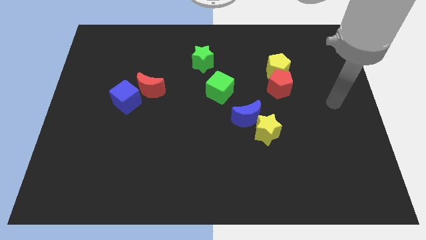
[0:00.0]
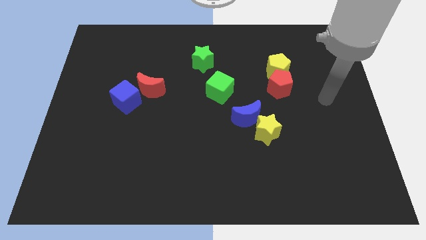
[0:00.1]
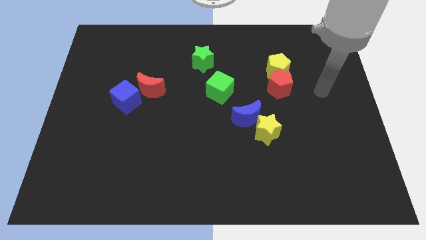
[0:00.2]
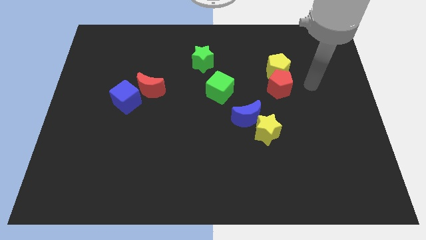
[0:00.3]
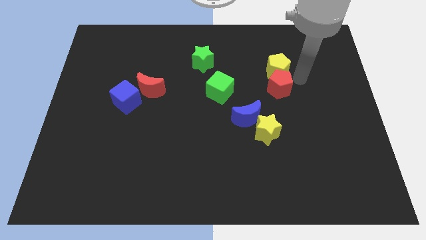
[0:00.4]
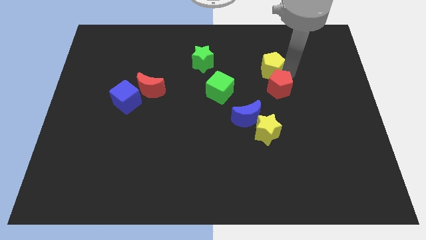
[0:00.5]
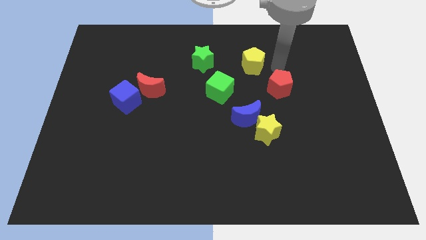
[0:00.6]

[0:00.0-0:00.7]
separate the red pentagon from the yellow pentagon

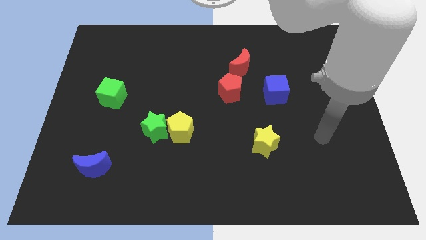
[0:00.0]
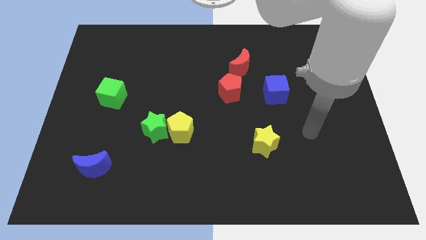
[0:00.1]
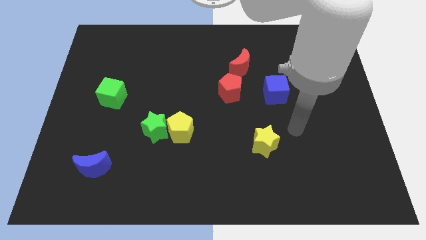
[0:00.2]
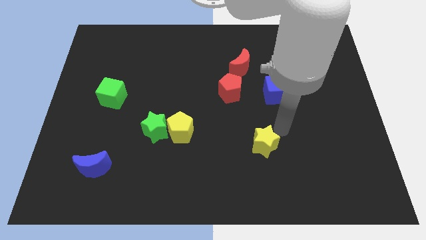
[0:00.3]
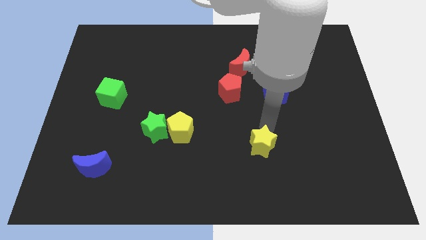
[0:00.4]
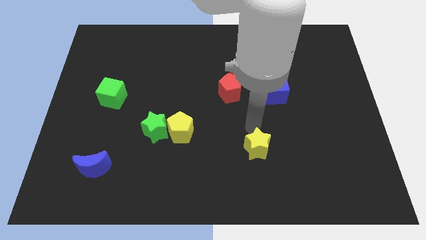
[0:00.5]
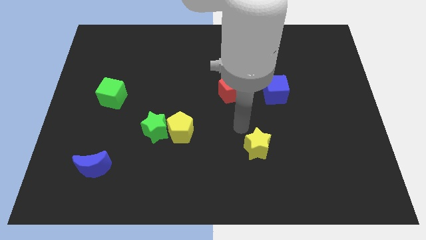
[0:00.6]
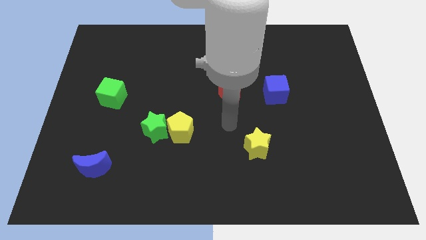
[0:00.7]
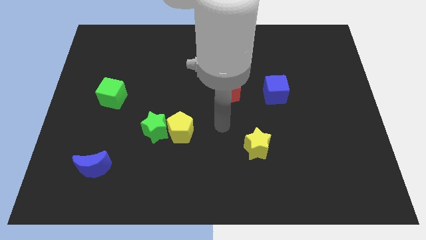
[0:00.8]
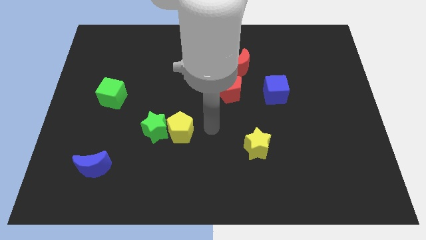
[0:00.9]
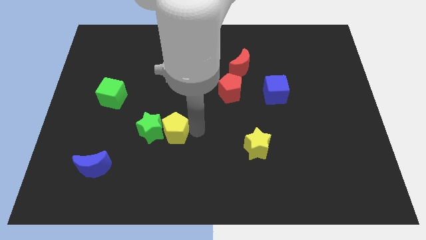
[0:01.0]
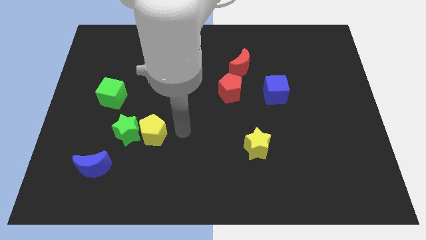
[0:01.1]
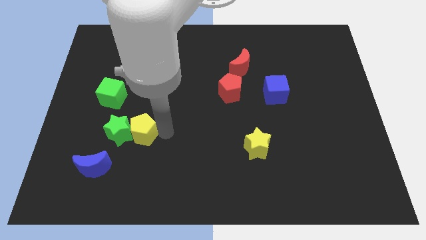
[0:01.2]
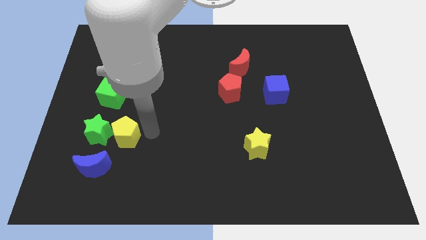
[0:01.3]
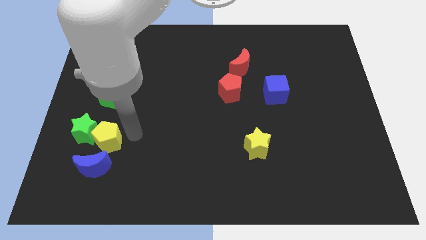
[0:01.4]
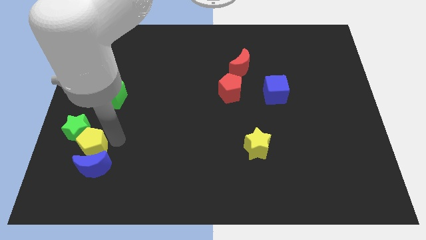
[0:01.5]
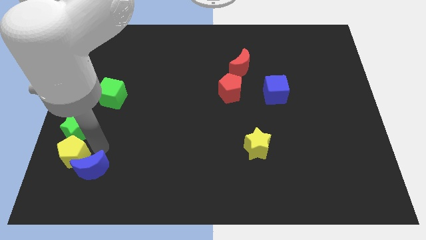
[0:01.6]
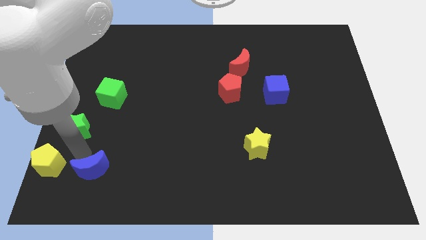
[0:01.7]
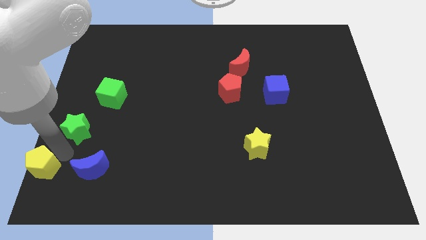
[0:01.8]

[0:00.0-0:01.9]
separate the green star from the yellow pentagon

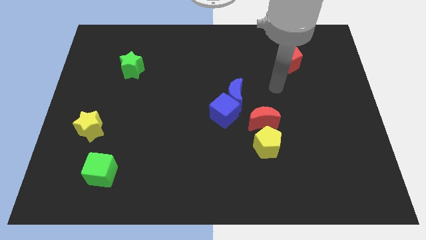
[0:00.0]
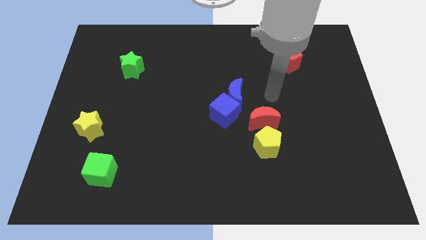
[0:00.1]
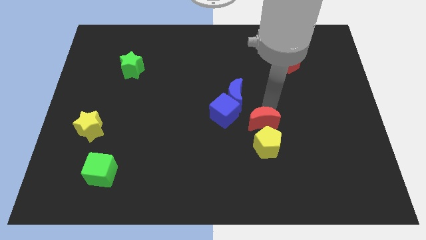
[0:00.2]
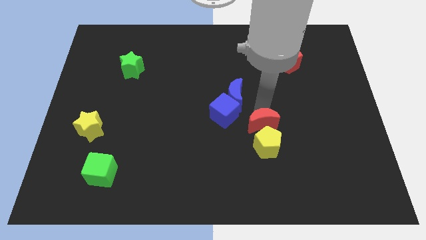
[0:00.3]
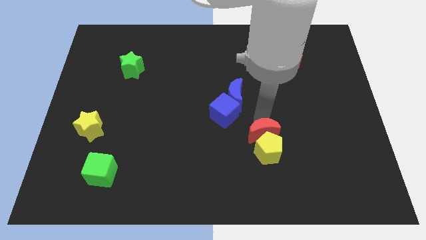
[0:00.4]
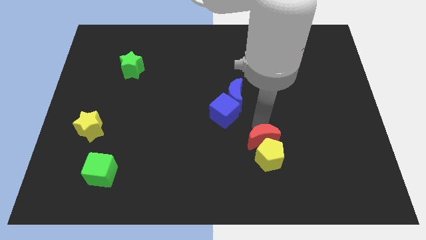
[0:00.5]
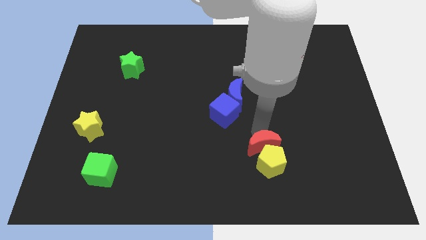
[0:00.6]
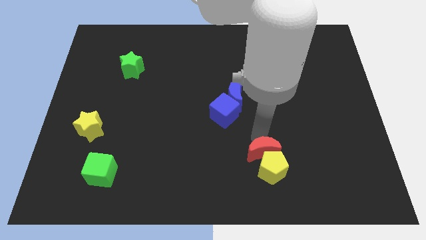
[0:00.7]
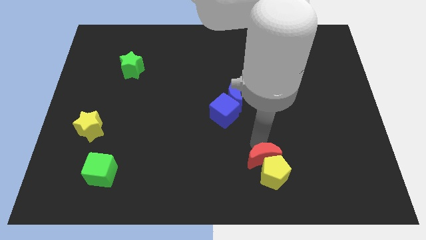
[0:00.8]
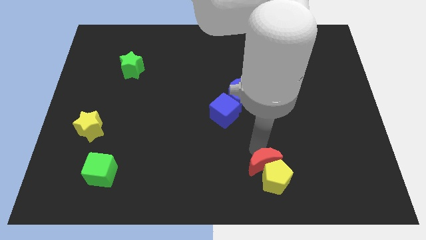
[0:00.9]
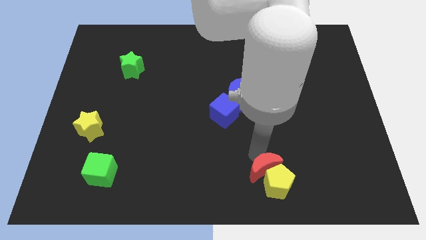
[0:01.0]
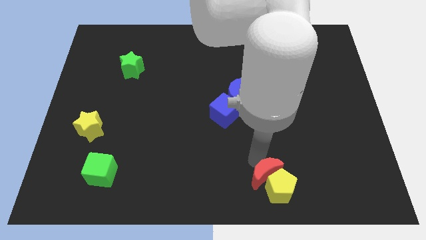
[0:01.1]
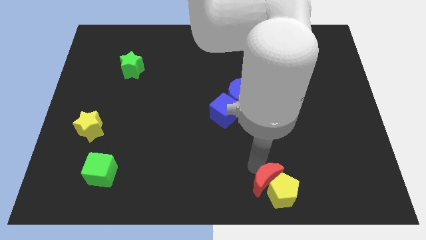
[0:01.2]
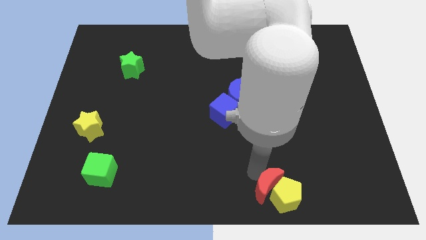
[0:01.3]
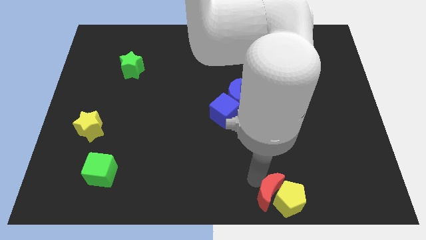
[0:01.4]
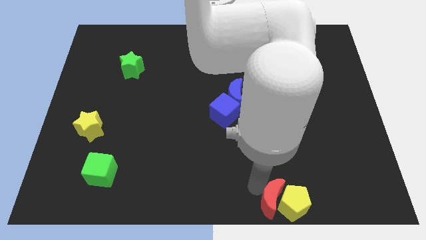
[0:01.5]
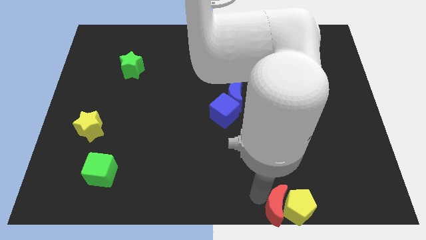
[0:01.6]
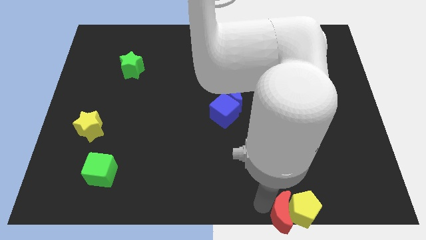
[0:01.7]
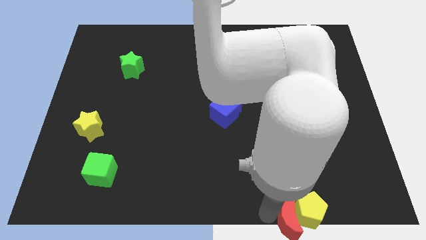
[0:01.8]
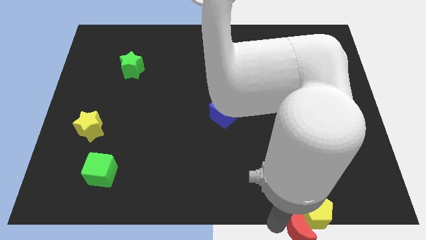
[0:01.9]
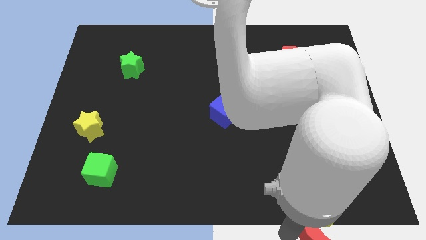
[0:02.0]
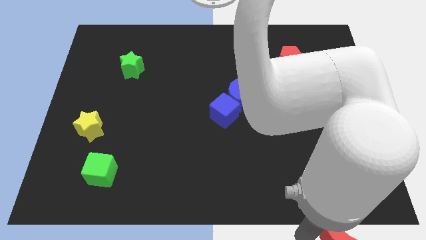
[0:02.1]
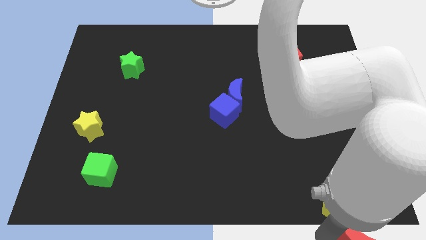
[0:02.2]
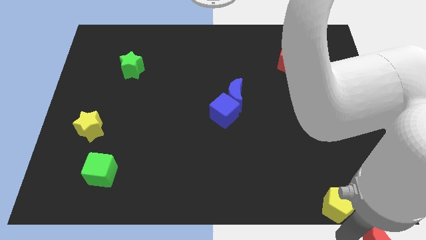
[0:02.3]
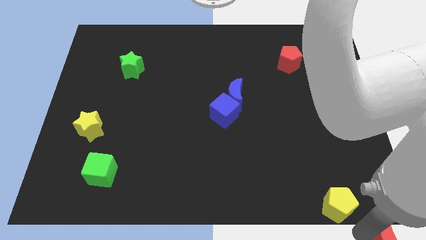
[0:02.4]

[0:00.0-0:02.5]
move the yellow pentagon away from the red moon

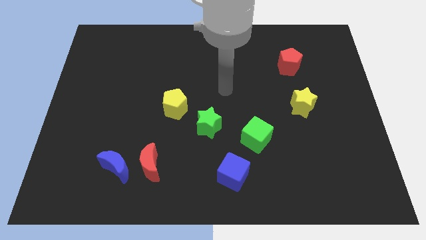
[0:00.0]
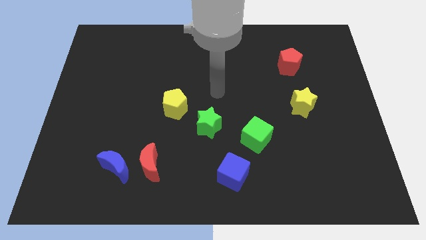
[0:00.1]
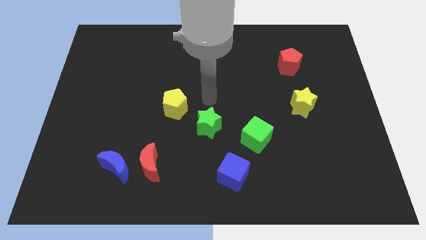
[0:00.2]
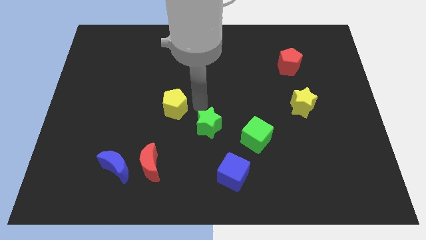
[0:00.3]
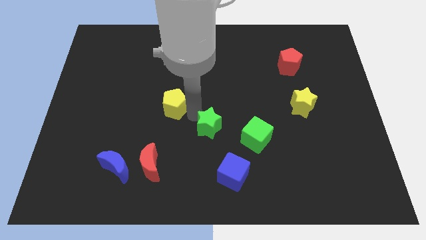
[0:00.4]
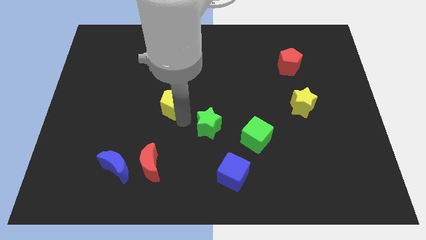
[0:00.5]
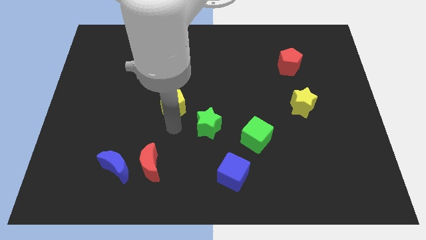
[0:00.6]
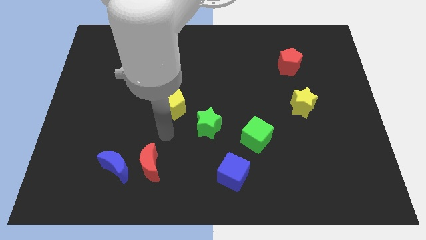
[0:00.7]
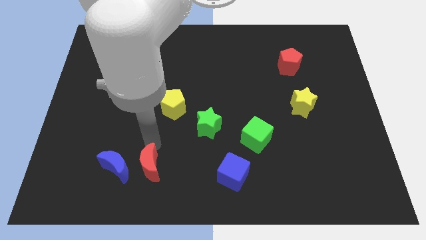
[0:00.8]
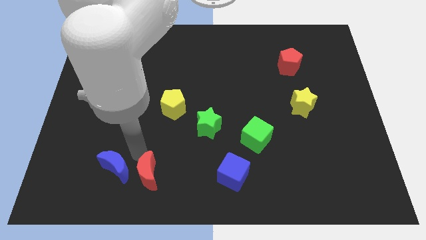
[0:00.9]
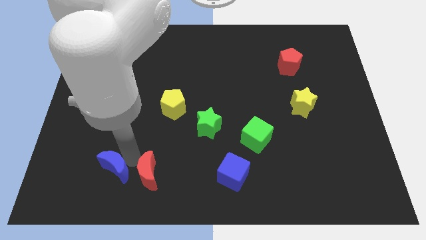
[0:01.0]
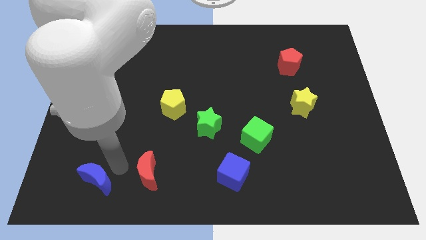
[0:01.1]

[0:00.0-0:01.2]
pull the red moon apart from the blue moon

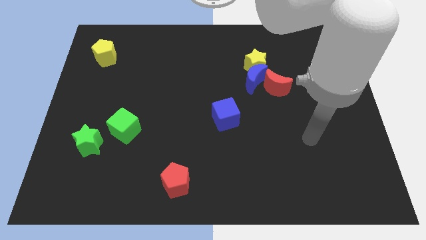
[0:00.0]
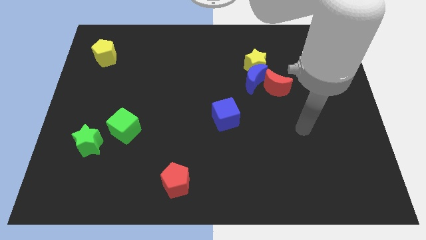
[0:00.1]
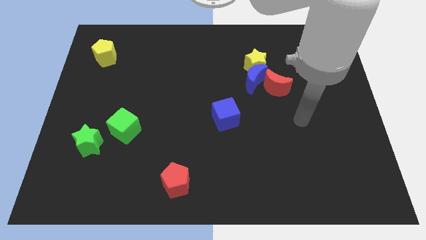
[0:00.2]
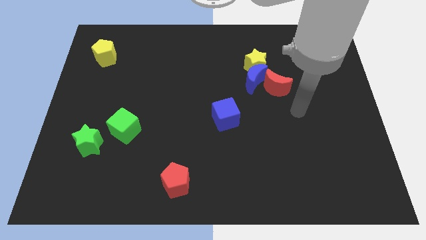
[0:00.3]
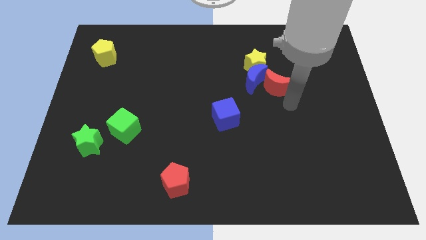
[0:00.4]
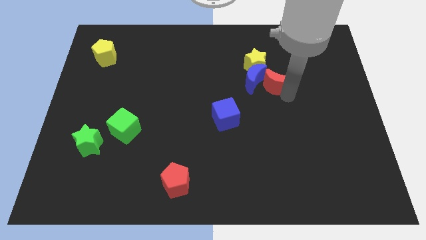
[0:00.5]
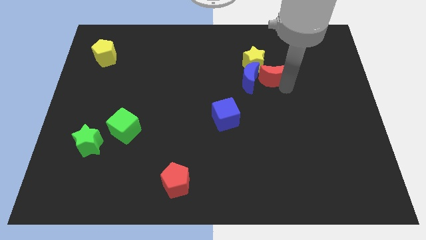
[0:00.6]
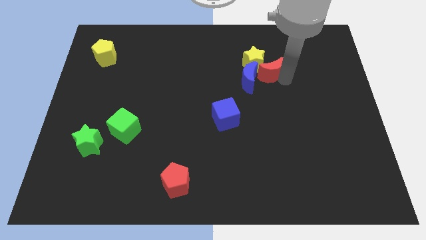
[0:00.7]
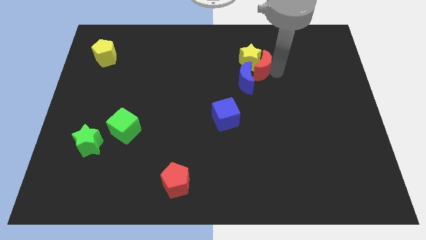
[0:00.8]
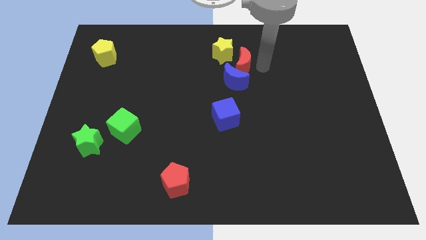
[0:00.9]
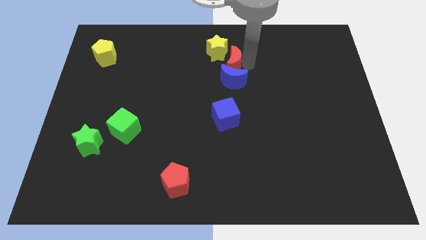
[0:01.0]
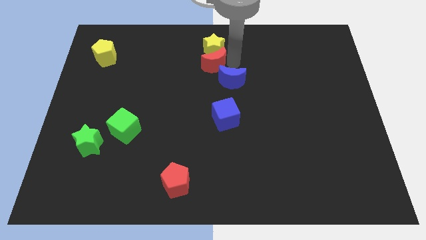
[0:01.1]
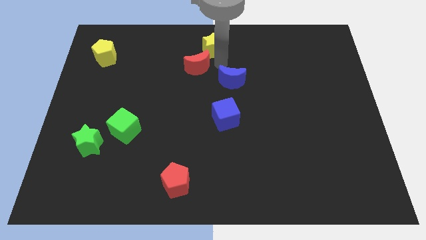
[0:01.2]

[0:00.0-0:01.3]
move the blue moon away from the yellow star and red moon

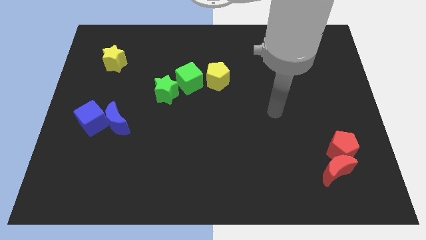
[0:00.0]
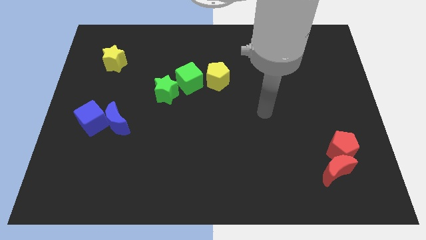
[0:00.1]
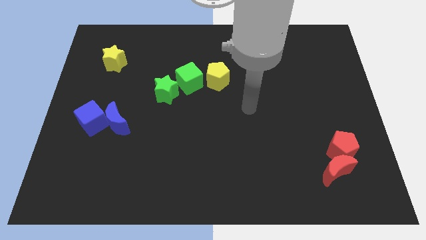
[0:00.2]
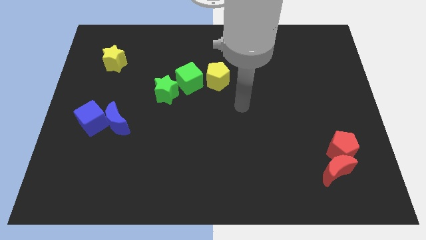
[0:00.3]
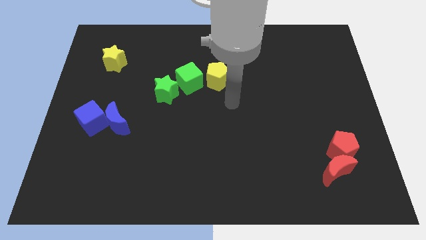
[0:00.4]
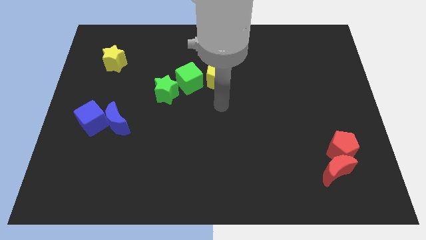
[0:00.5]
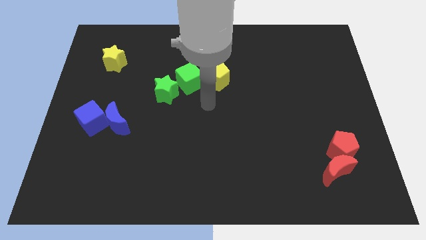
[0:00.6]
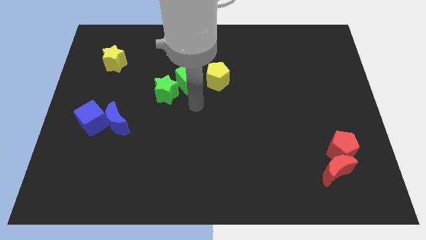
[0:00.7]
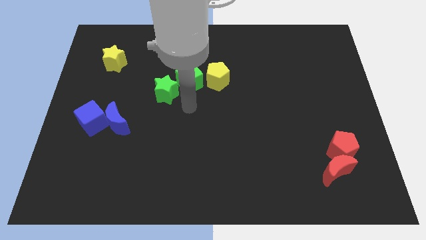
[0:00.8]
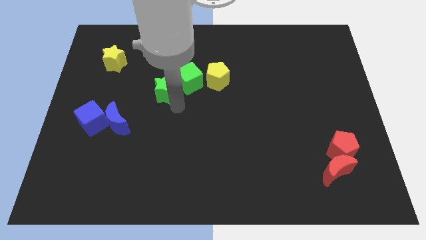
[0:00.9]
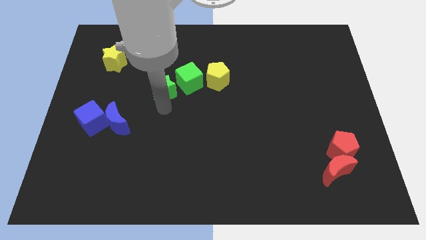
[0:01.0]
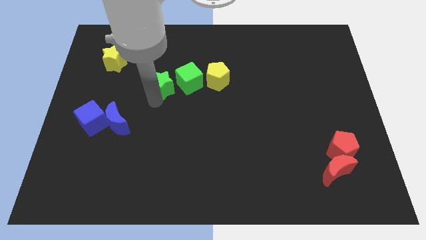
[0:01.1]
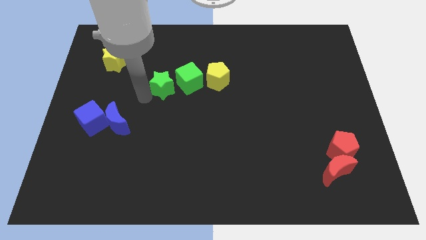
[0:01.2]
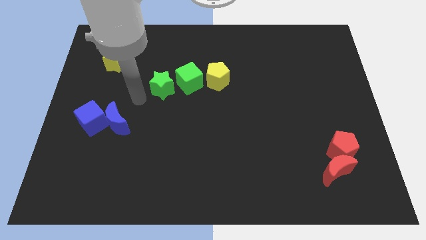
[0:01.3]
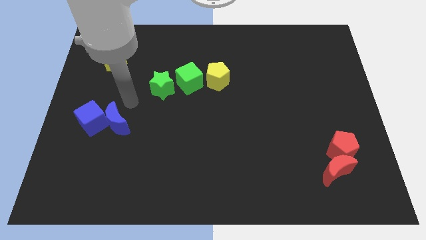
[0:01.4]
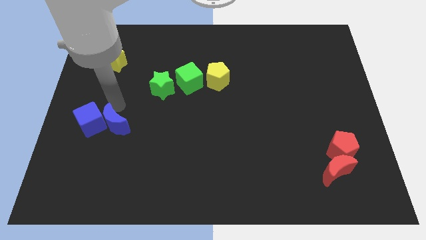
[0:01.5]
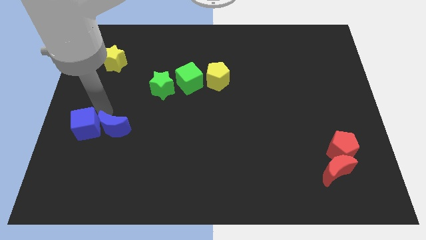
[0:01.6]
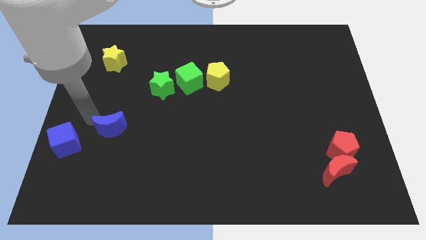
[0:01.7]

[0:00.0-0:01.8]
move the blue moon away from the blue cube
